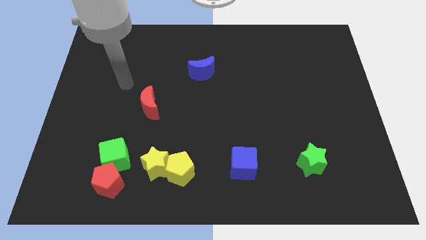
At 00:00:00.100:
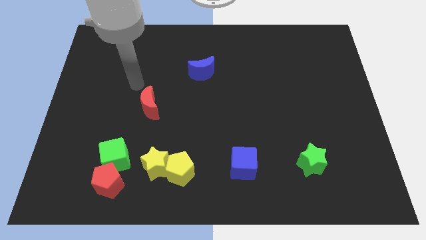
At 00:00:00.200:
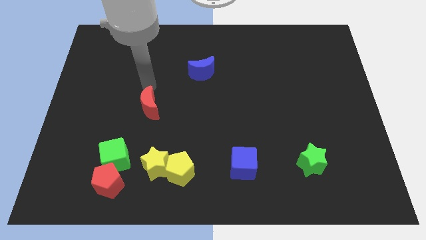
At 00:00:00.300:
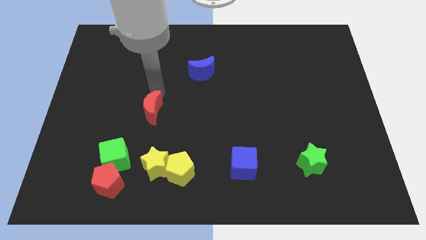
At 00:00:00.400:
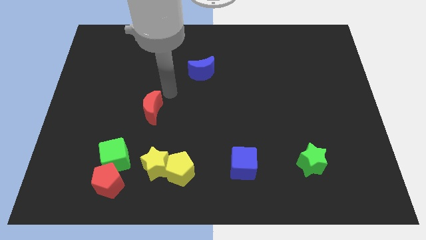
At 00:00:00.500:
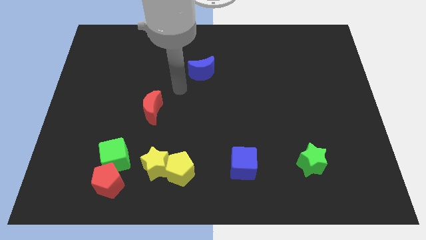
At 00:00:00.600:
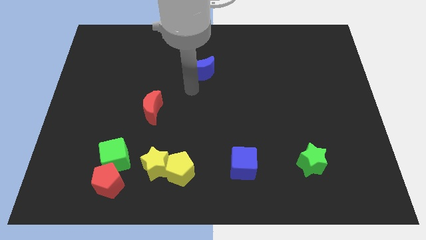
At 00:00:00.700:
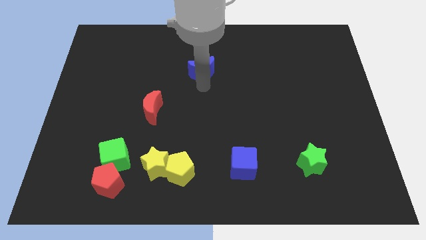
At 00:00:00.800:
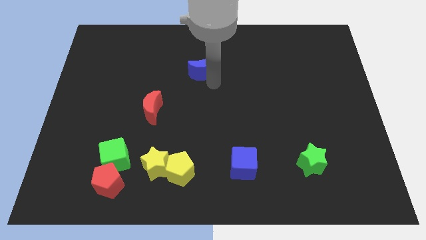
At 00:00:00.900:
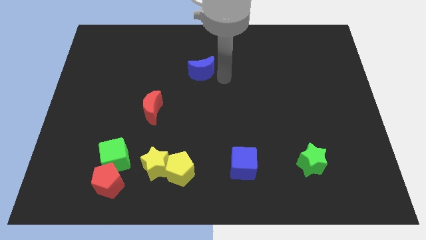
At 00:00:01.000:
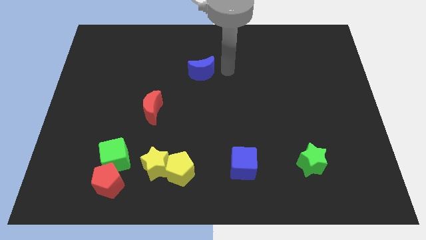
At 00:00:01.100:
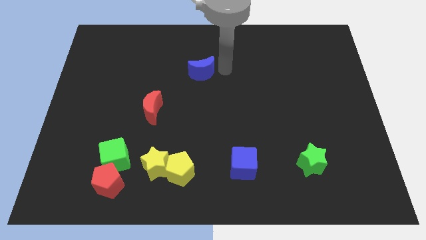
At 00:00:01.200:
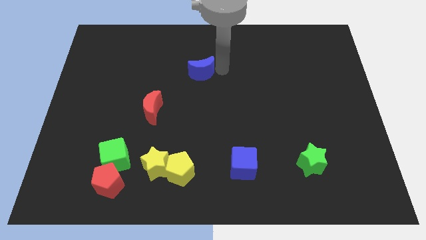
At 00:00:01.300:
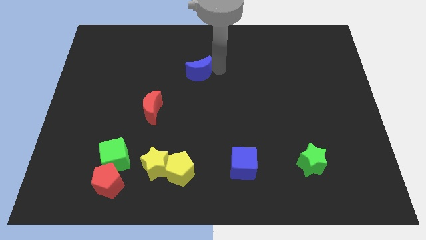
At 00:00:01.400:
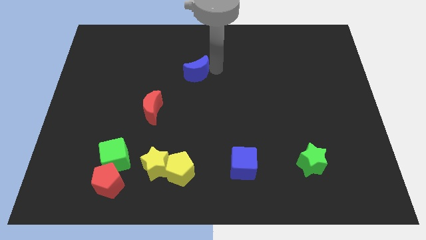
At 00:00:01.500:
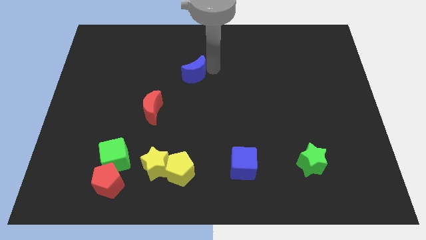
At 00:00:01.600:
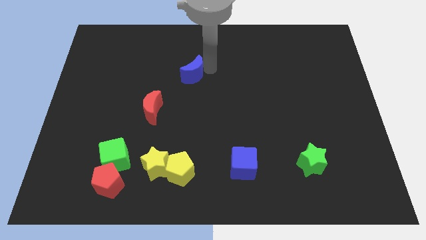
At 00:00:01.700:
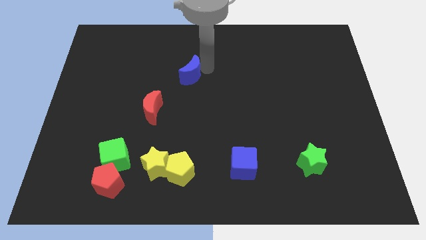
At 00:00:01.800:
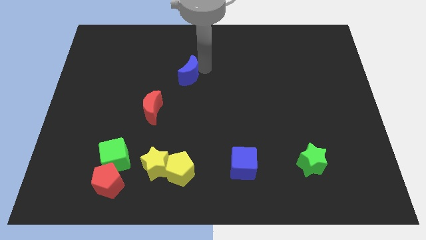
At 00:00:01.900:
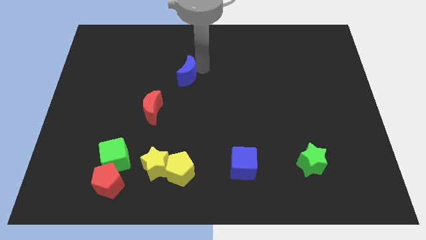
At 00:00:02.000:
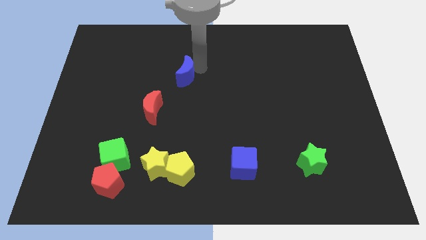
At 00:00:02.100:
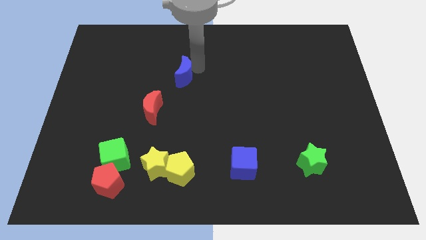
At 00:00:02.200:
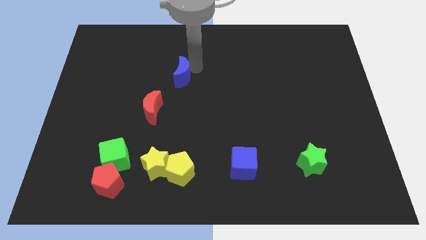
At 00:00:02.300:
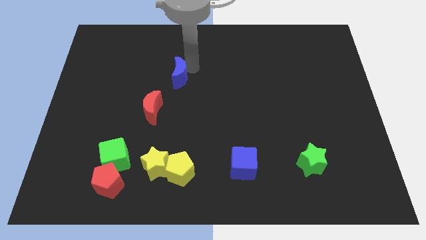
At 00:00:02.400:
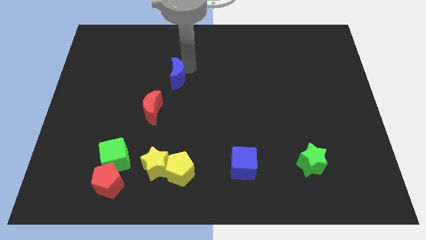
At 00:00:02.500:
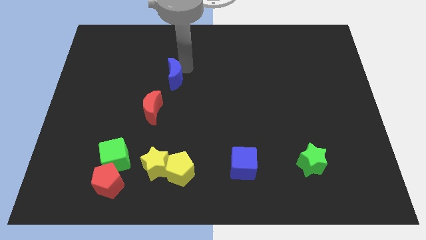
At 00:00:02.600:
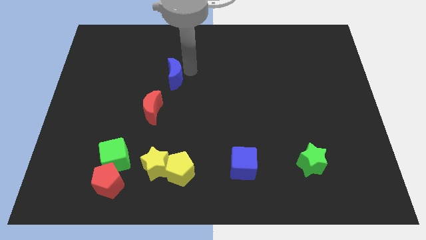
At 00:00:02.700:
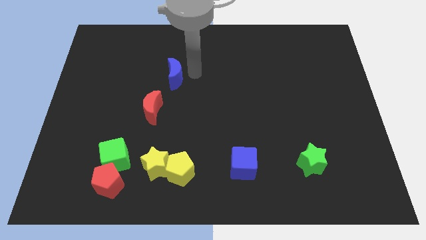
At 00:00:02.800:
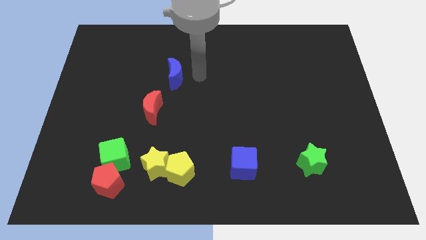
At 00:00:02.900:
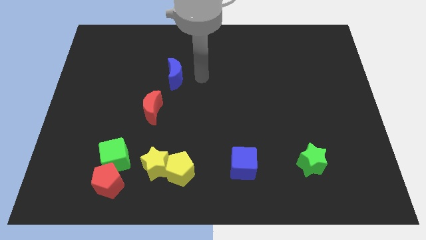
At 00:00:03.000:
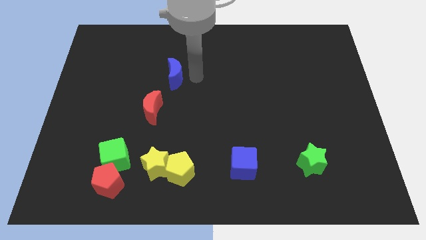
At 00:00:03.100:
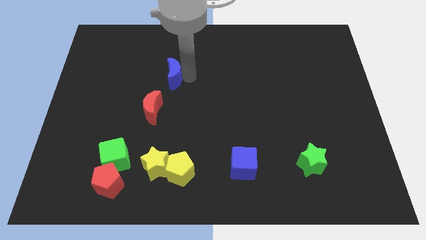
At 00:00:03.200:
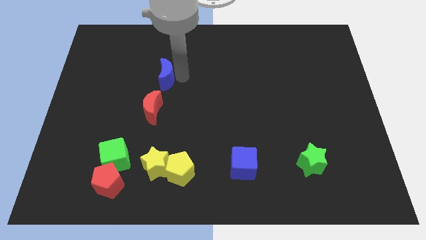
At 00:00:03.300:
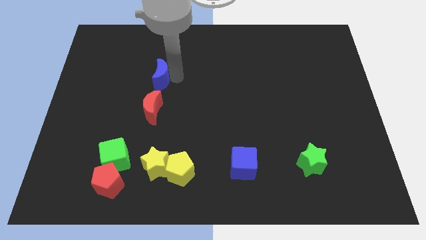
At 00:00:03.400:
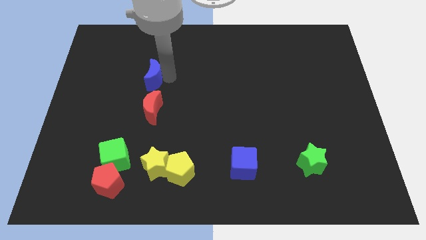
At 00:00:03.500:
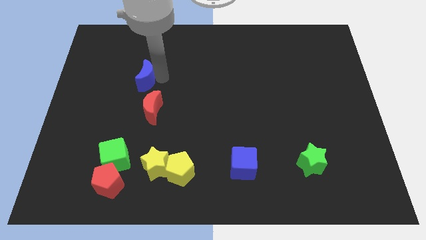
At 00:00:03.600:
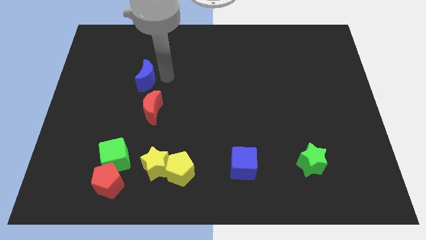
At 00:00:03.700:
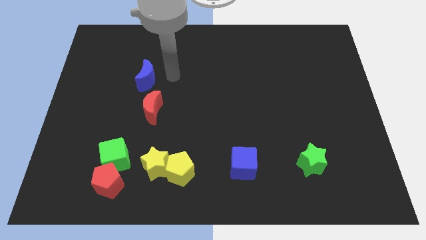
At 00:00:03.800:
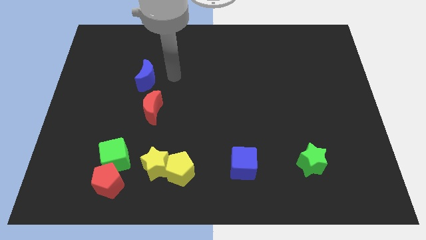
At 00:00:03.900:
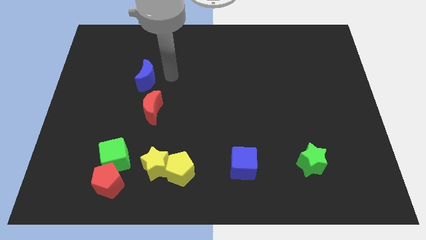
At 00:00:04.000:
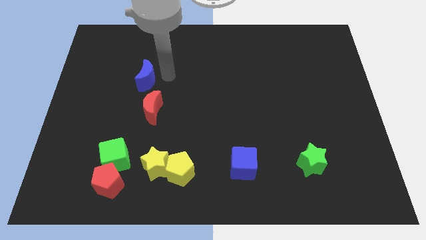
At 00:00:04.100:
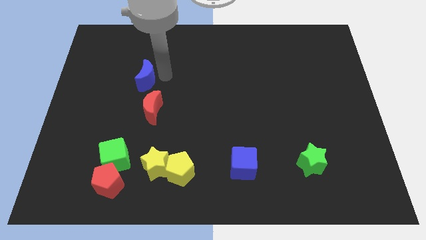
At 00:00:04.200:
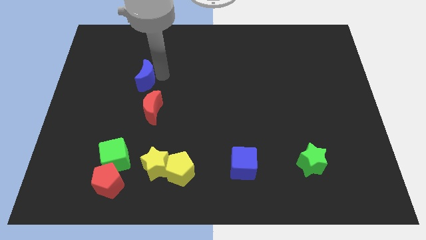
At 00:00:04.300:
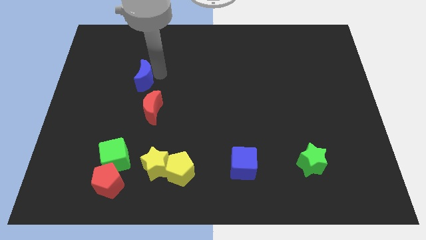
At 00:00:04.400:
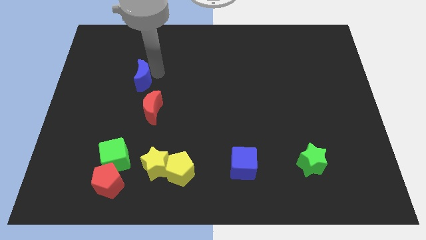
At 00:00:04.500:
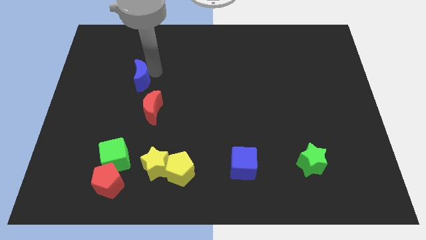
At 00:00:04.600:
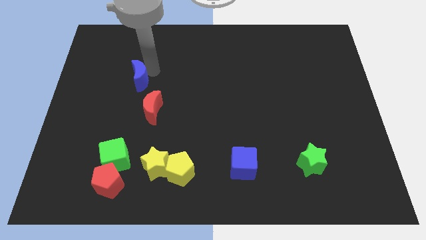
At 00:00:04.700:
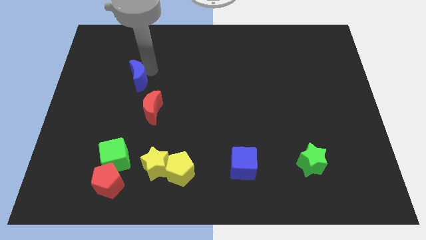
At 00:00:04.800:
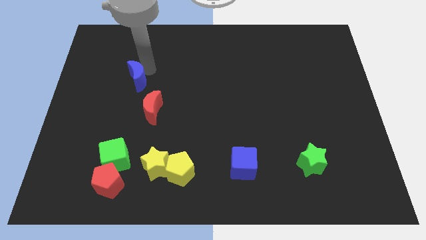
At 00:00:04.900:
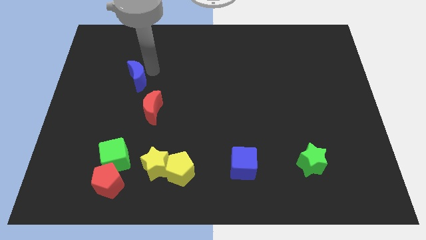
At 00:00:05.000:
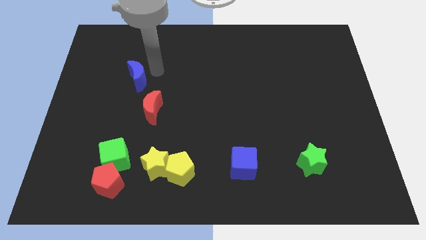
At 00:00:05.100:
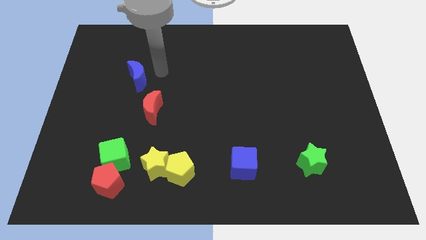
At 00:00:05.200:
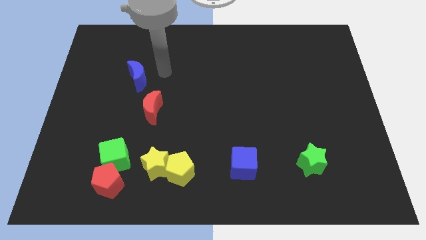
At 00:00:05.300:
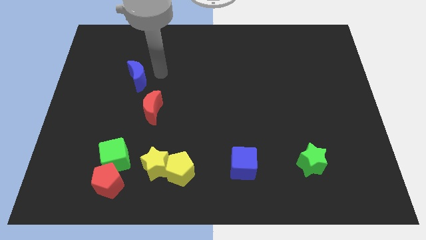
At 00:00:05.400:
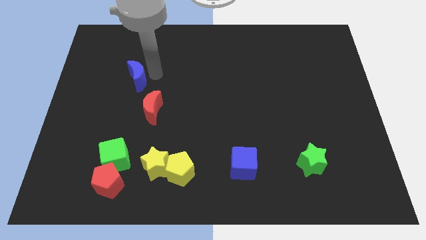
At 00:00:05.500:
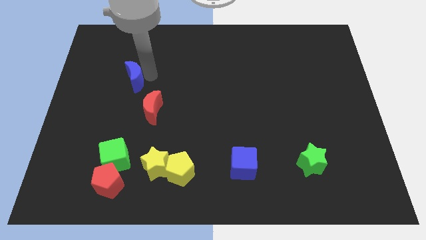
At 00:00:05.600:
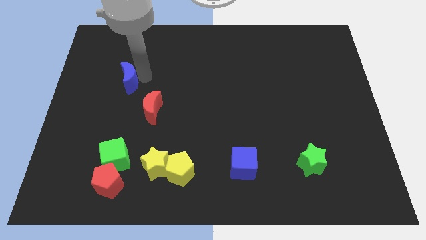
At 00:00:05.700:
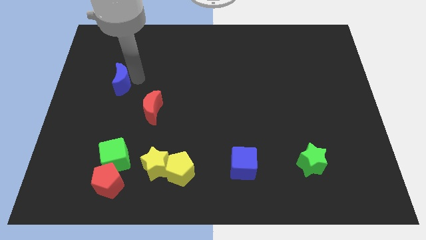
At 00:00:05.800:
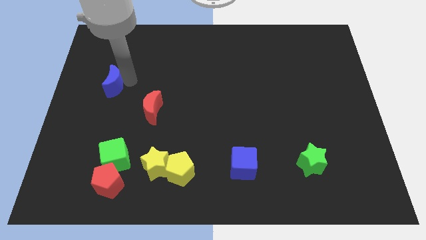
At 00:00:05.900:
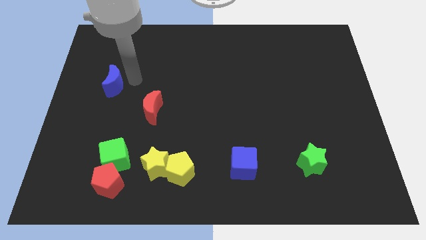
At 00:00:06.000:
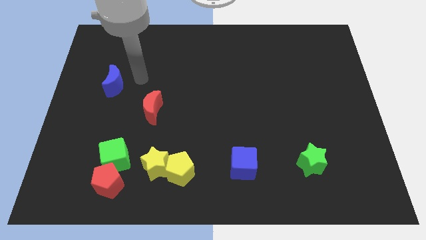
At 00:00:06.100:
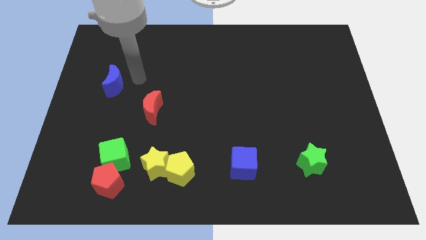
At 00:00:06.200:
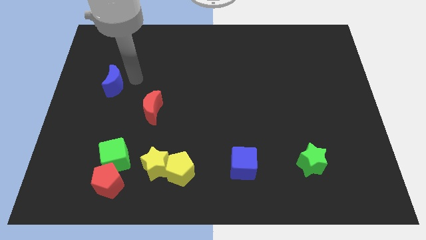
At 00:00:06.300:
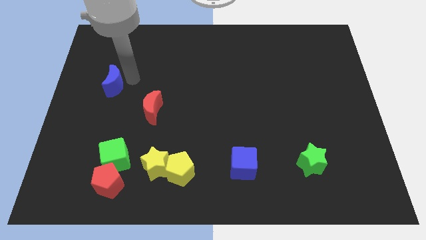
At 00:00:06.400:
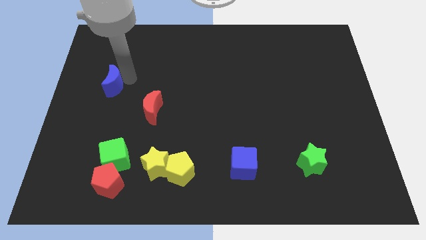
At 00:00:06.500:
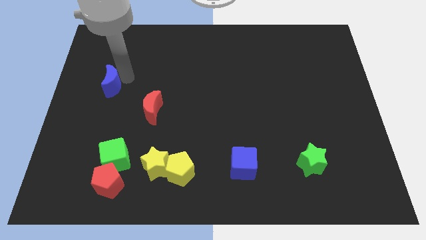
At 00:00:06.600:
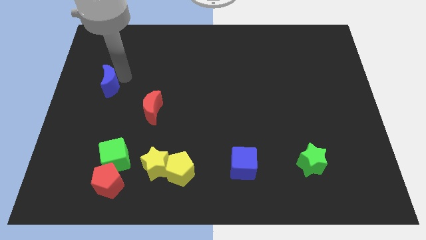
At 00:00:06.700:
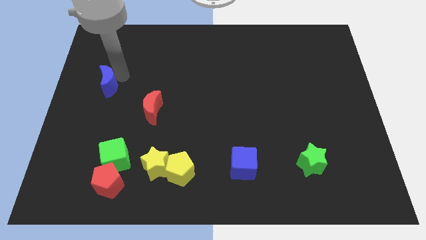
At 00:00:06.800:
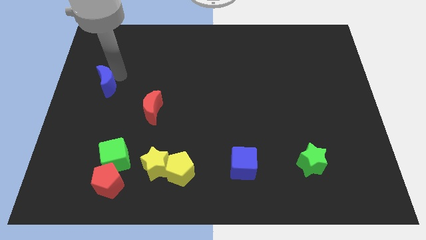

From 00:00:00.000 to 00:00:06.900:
move the blue moon to the center left
